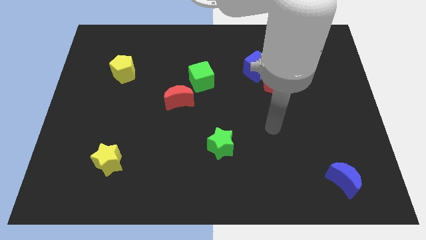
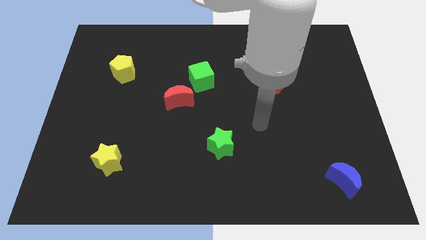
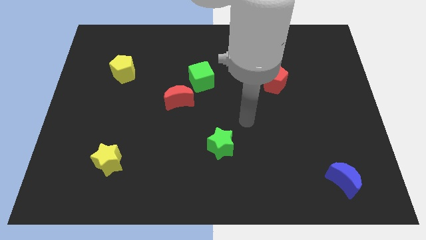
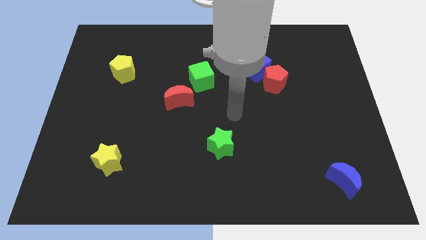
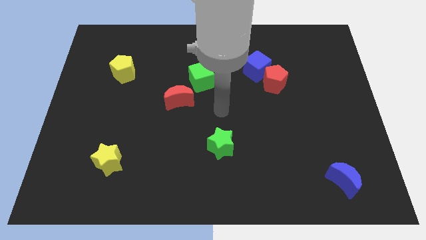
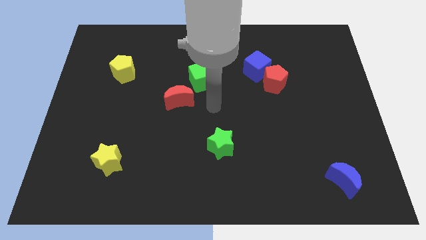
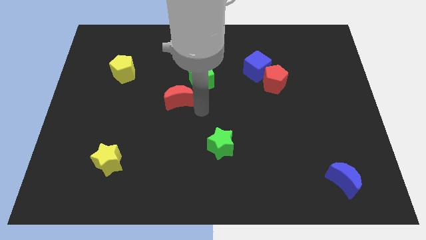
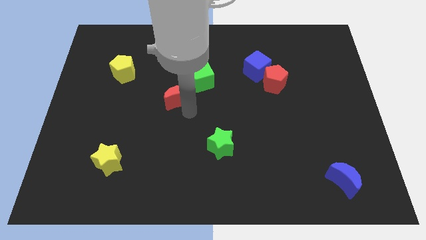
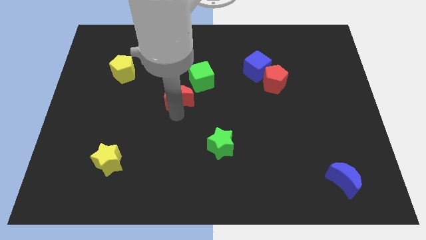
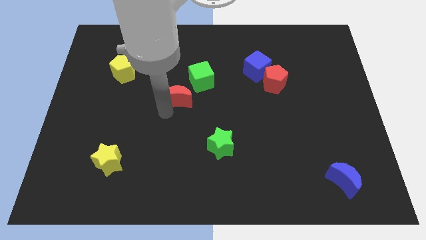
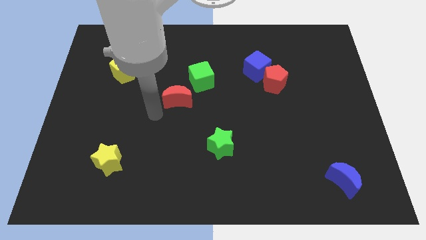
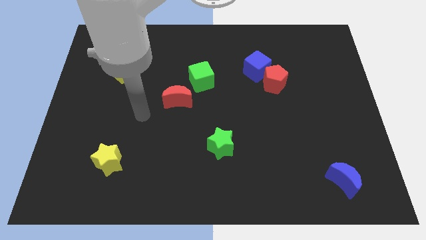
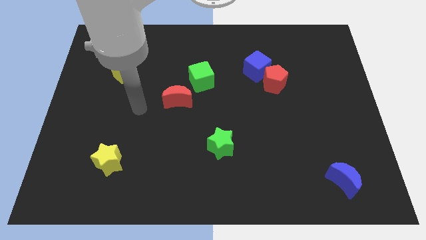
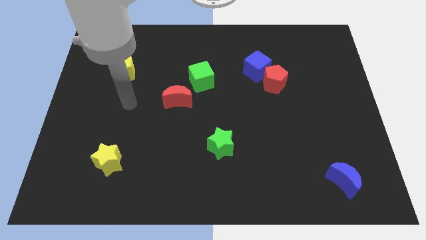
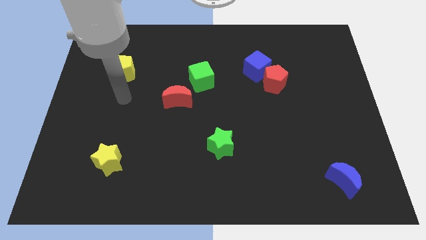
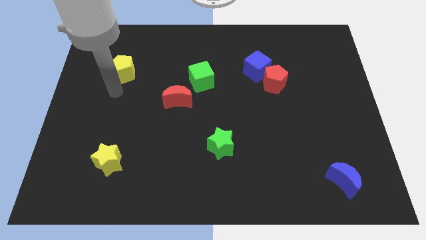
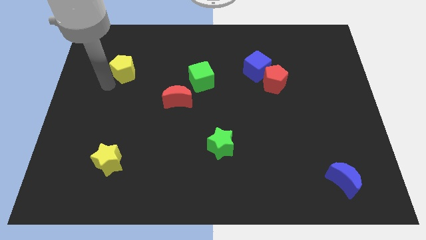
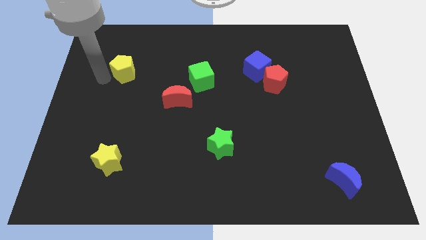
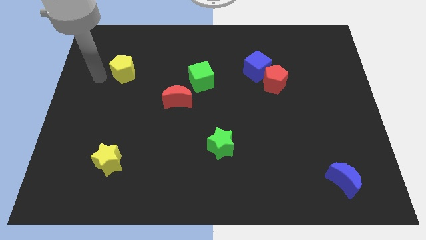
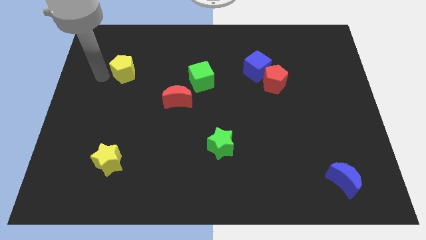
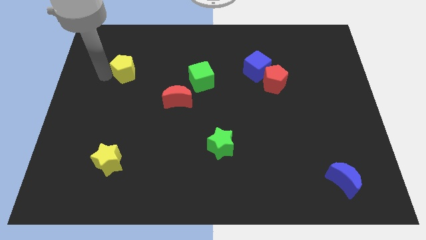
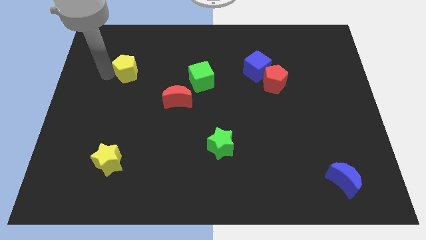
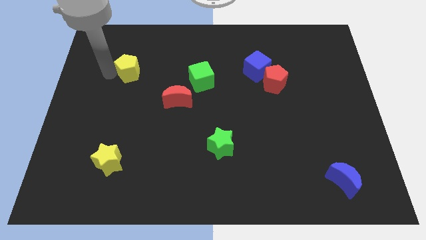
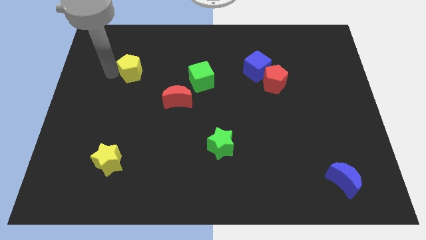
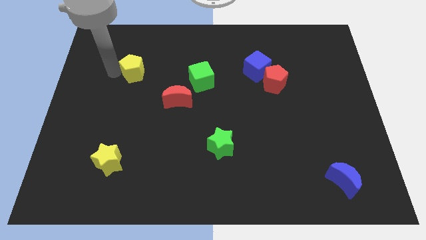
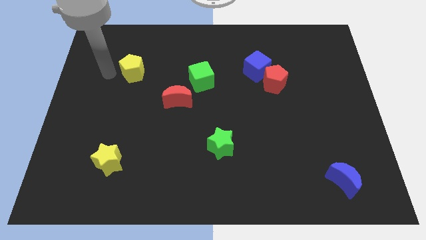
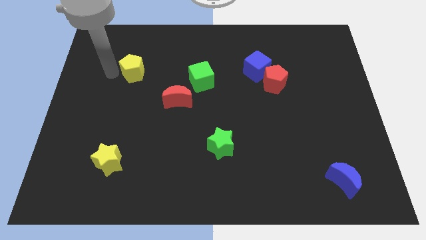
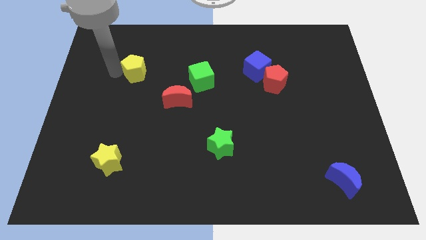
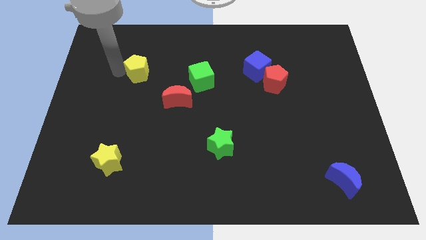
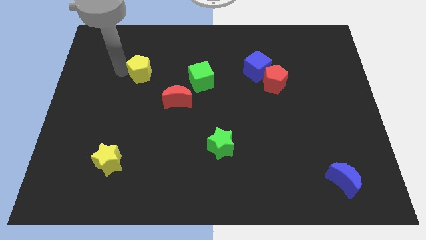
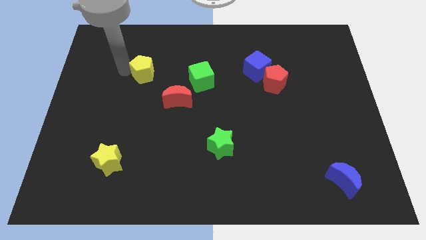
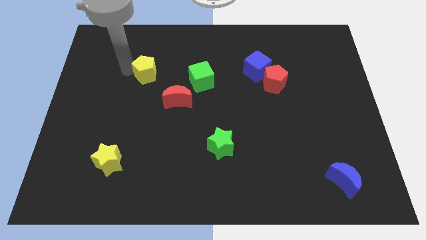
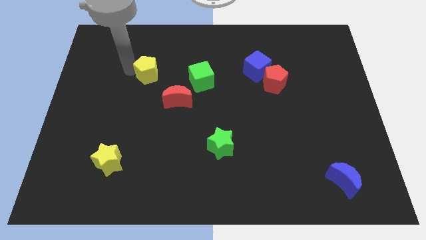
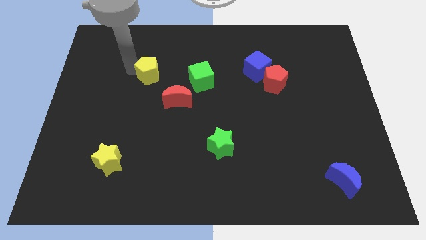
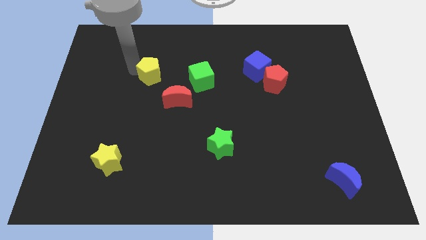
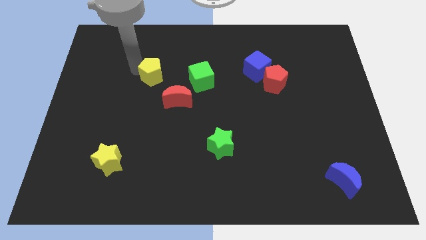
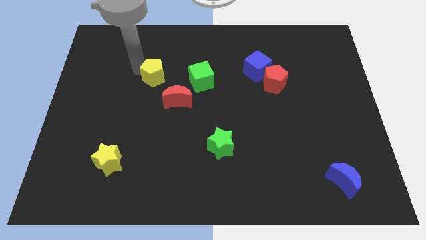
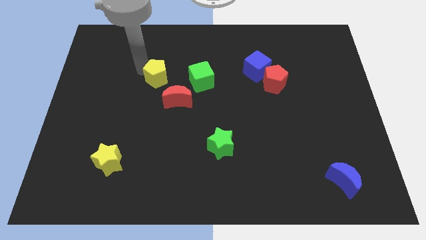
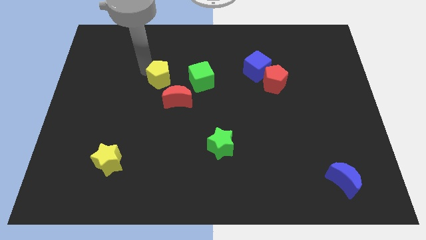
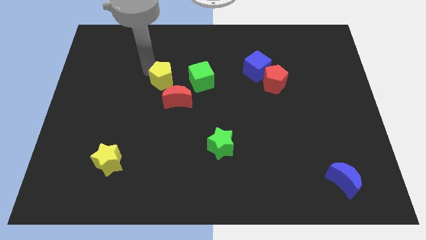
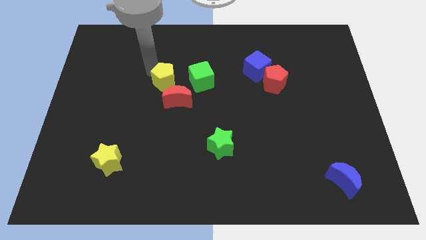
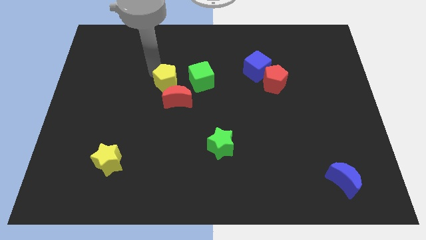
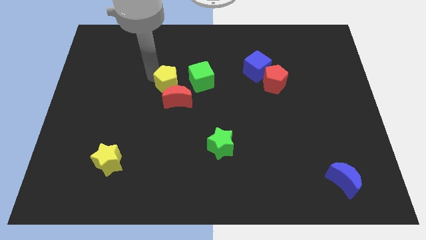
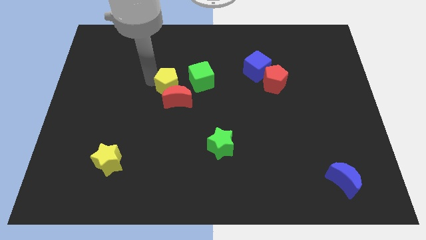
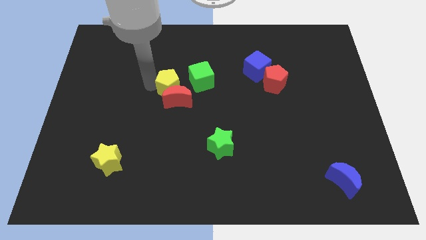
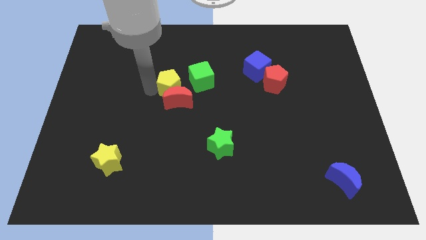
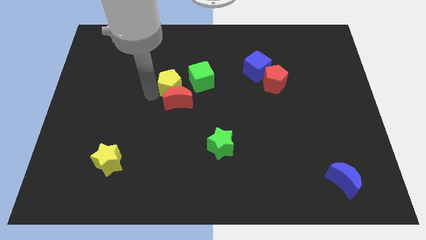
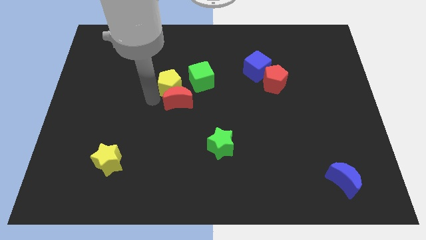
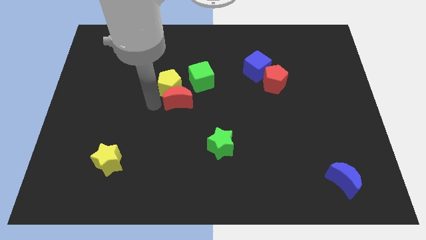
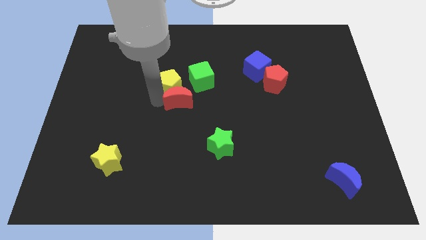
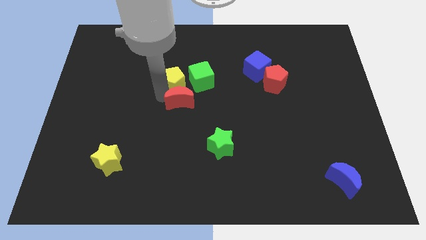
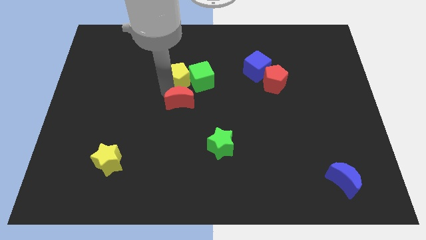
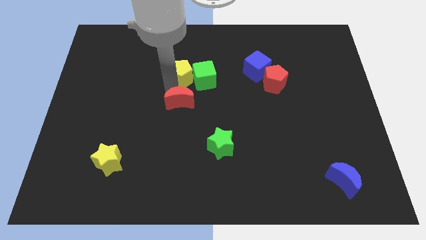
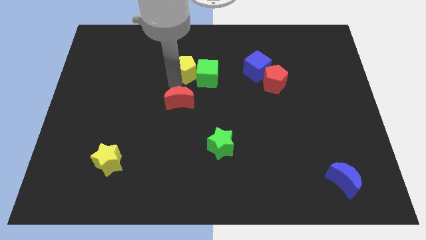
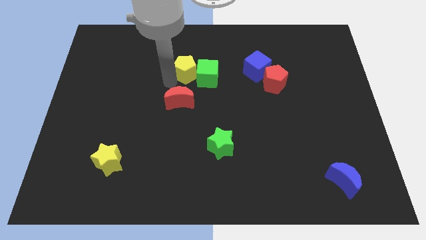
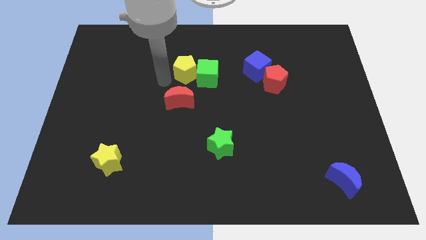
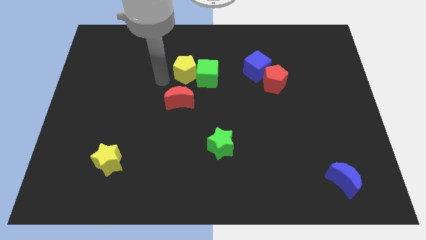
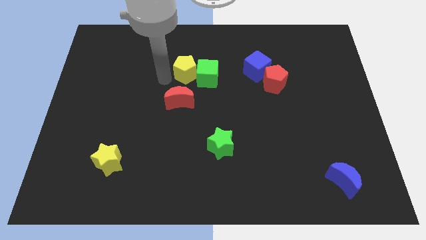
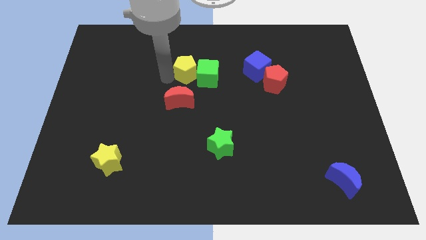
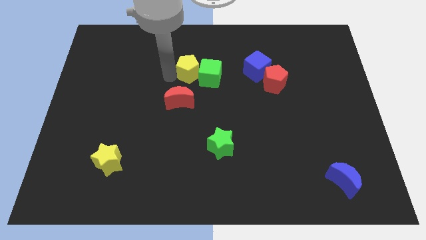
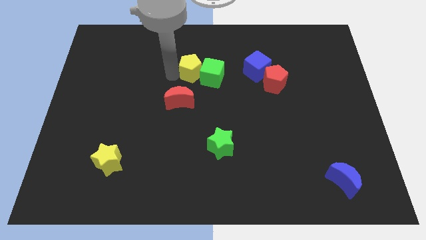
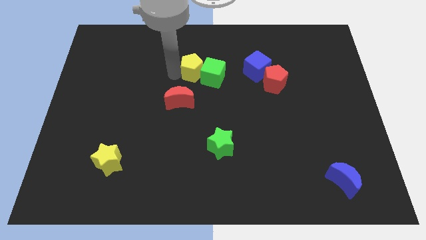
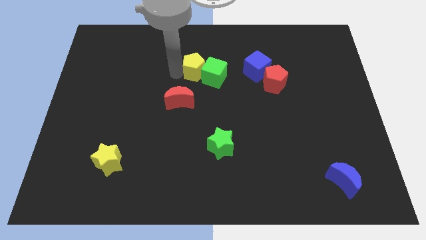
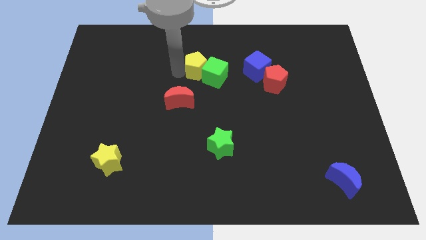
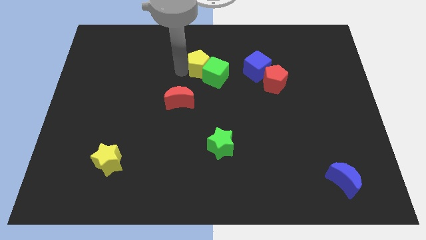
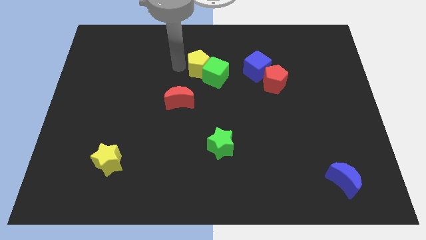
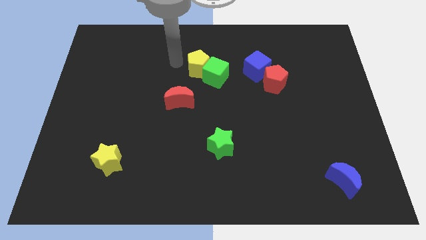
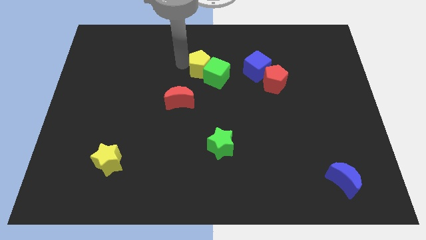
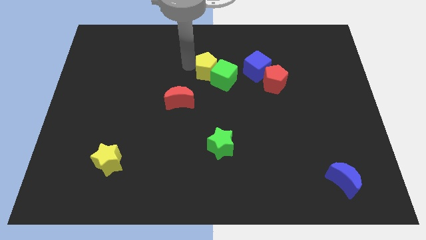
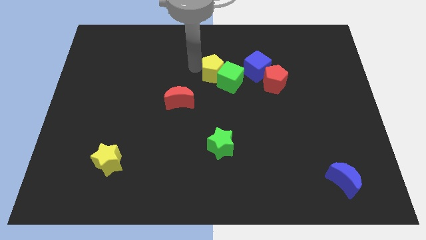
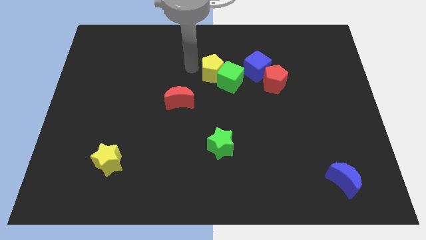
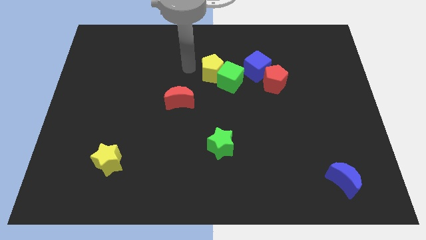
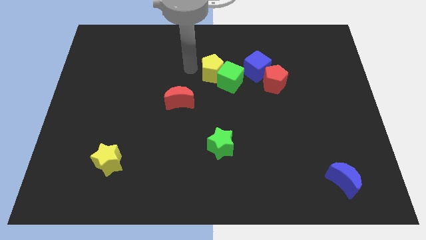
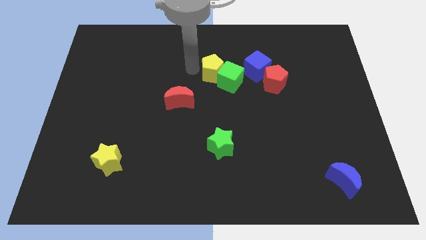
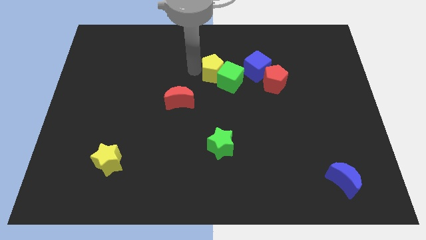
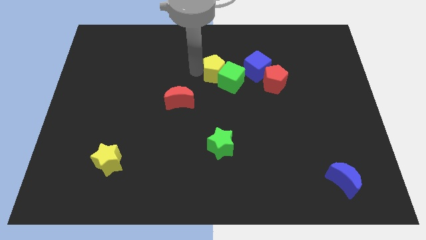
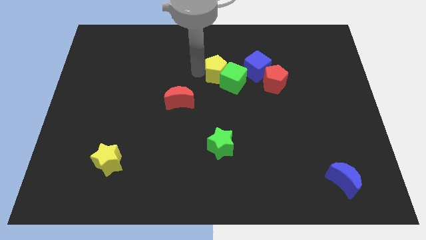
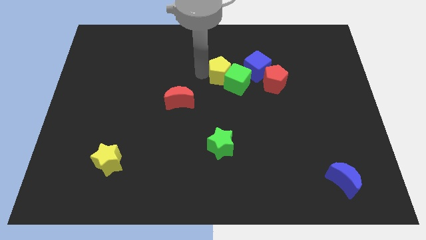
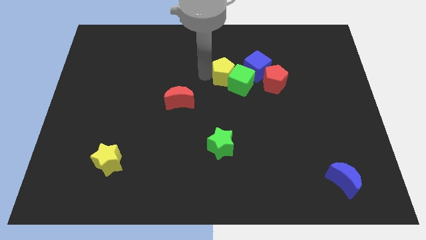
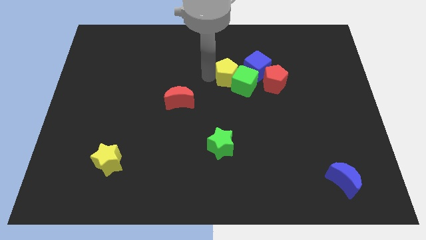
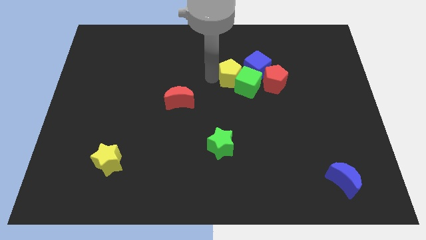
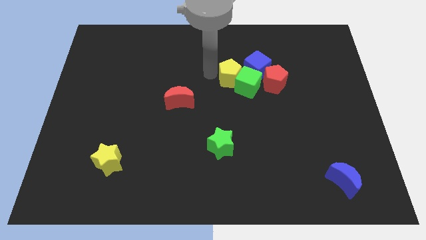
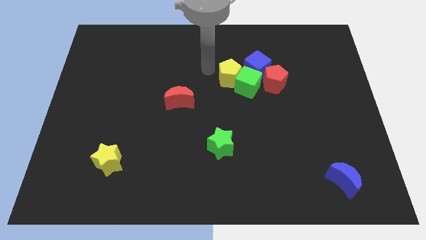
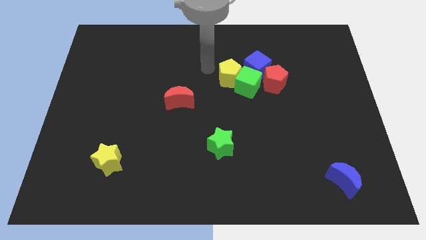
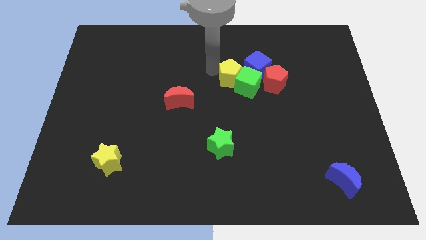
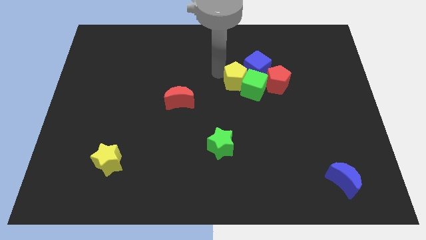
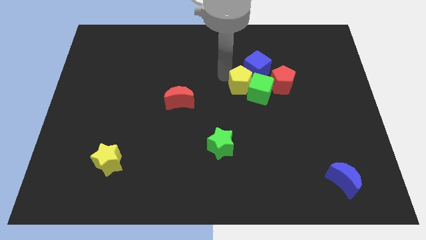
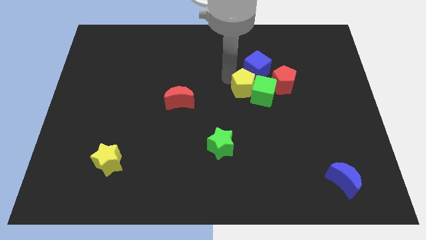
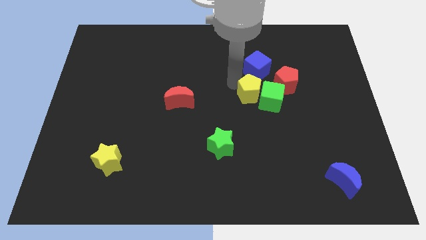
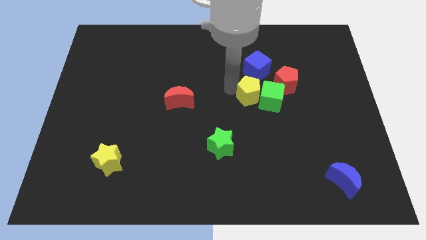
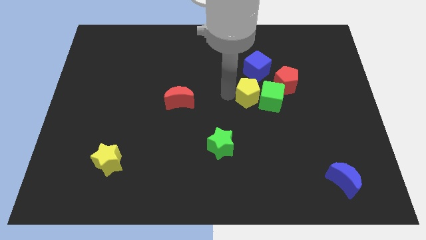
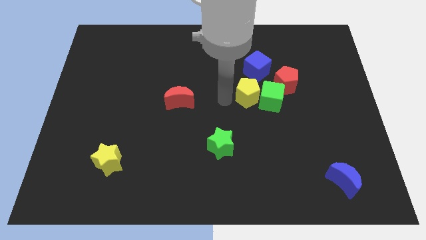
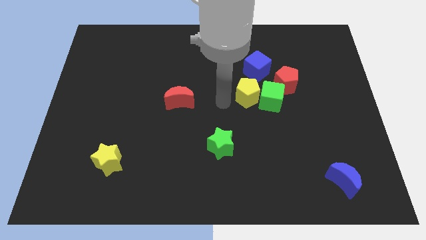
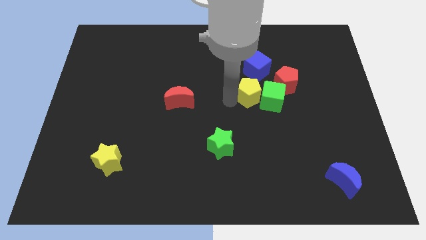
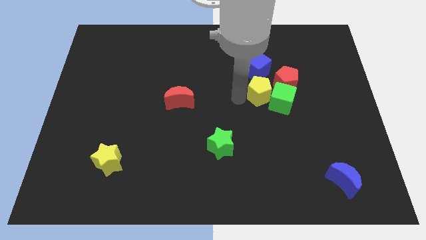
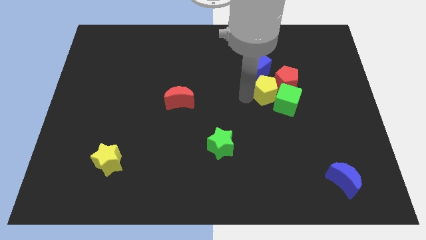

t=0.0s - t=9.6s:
slide the yellow pentagon towards the red pentagon
